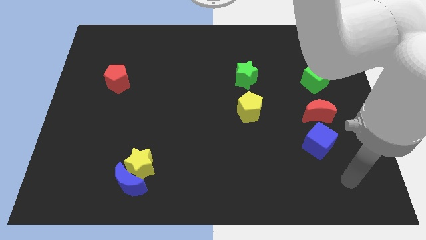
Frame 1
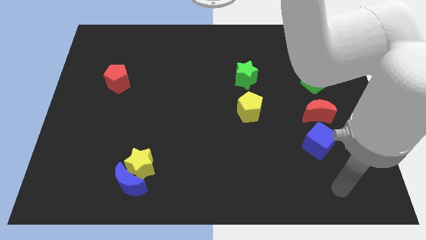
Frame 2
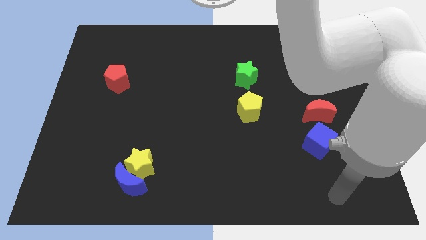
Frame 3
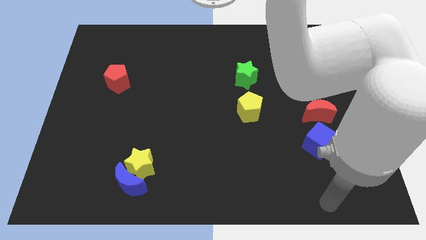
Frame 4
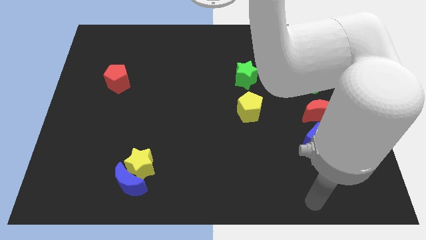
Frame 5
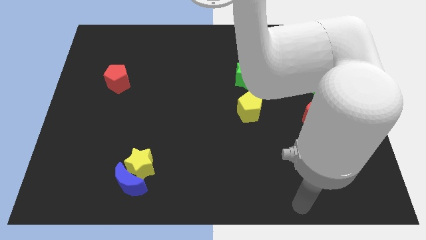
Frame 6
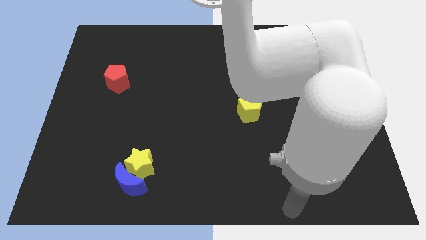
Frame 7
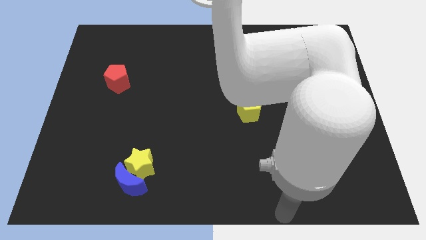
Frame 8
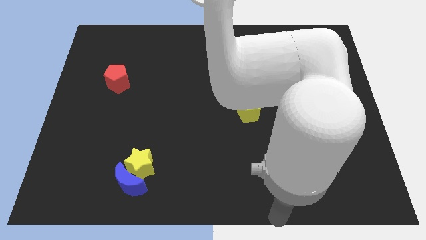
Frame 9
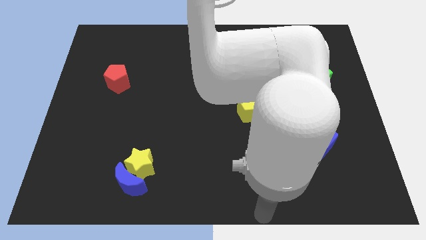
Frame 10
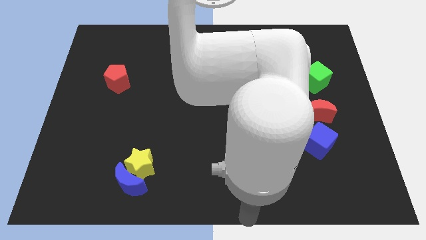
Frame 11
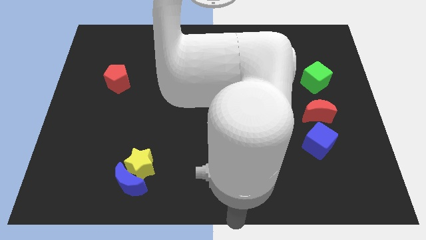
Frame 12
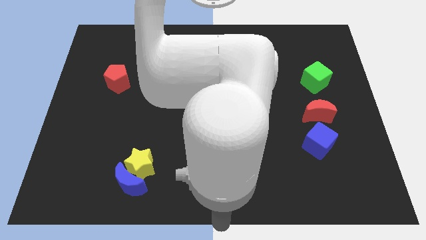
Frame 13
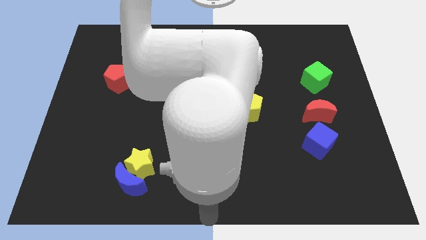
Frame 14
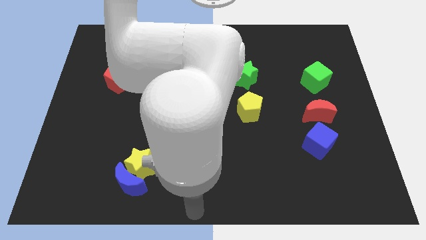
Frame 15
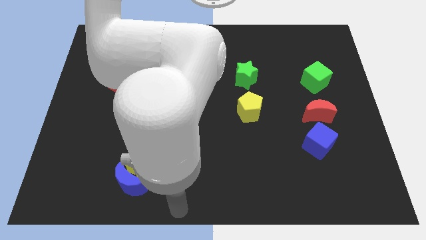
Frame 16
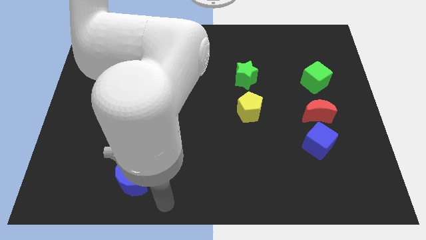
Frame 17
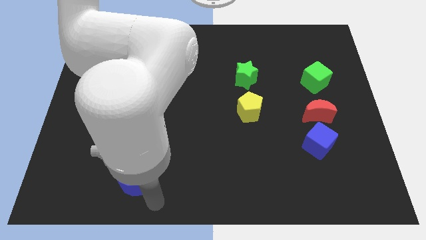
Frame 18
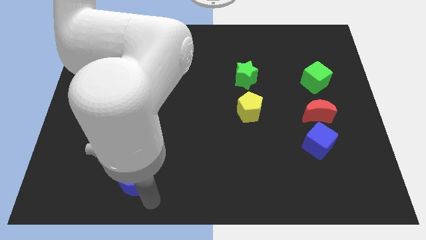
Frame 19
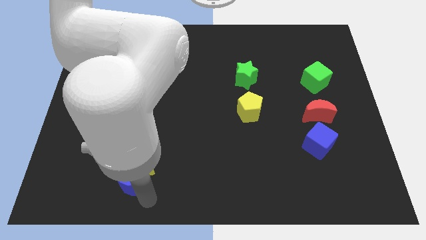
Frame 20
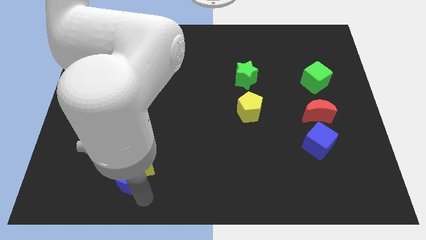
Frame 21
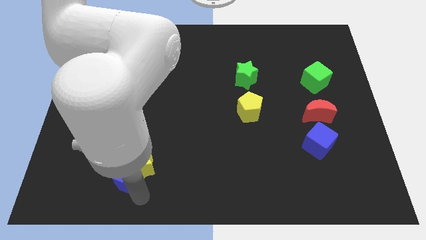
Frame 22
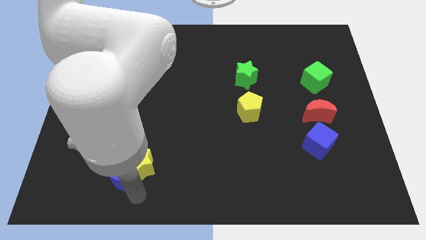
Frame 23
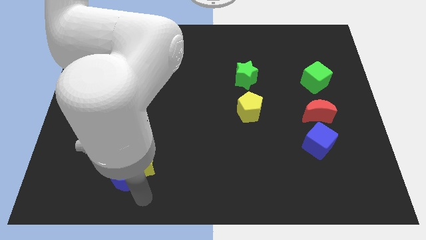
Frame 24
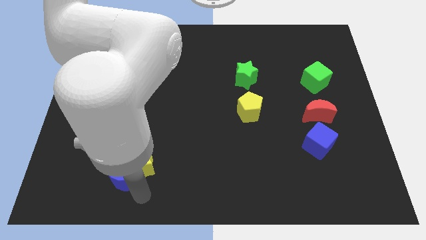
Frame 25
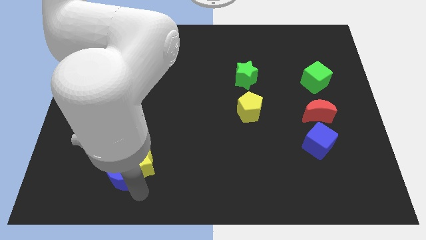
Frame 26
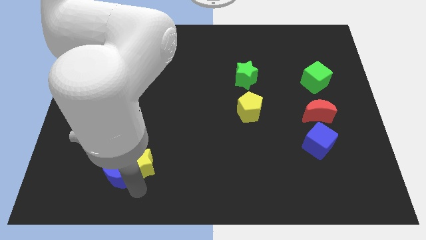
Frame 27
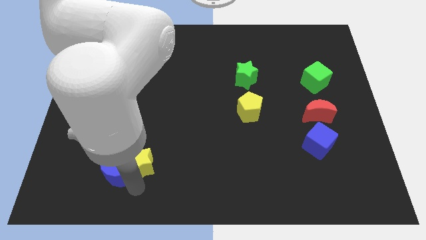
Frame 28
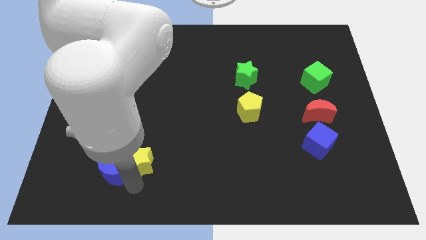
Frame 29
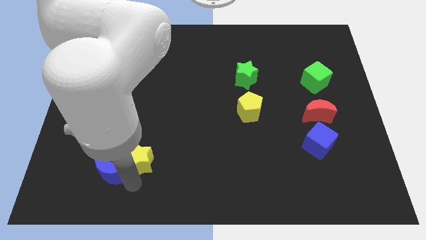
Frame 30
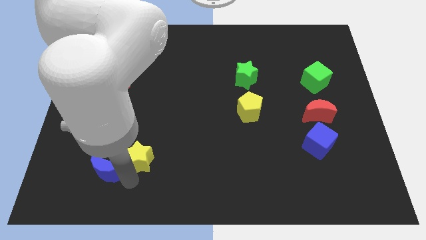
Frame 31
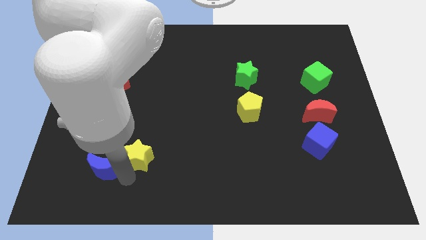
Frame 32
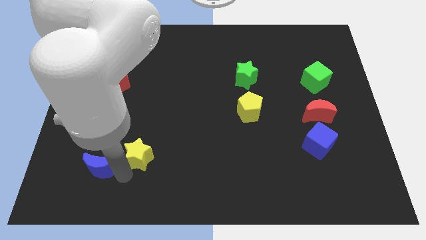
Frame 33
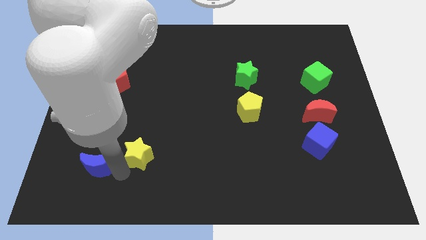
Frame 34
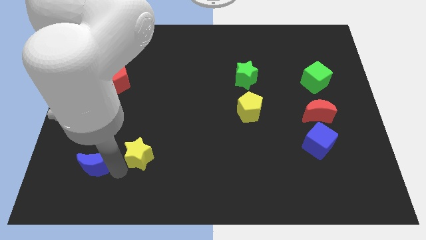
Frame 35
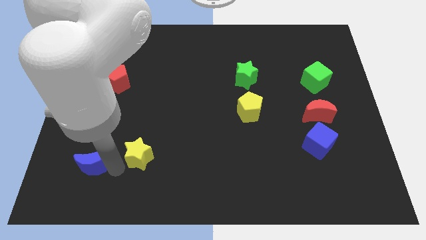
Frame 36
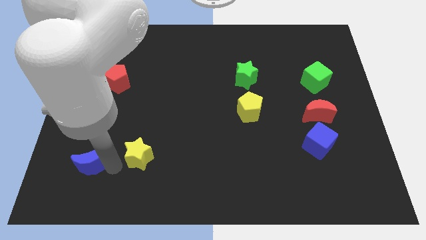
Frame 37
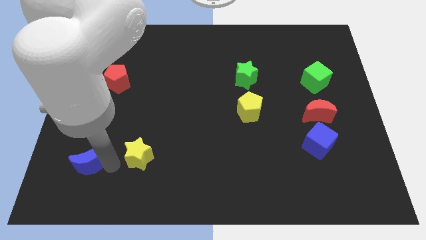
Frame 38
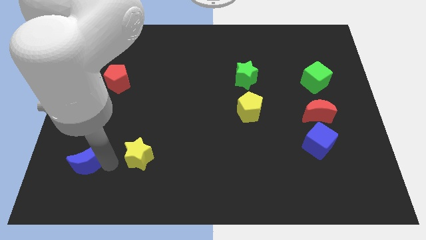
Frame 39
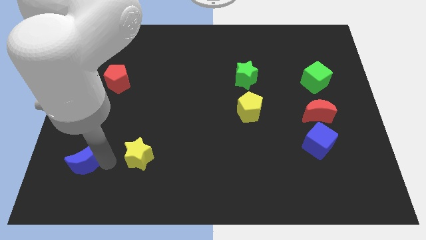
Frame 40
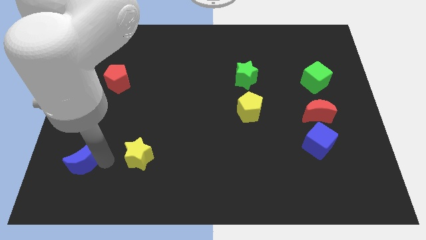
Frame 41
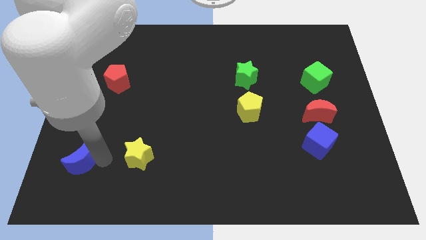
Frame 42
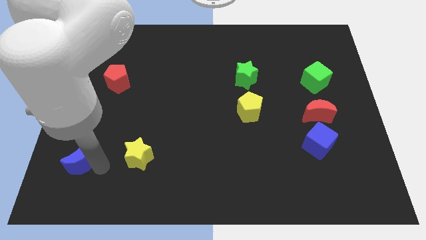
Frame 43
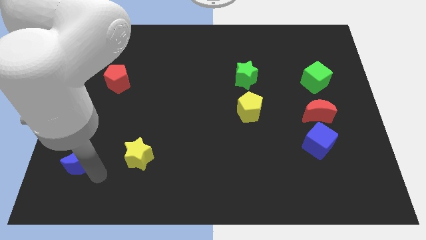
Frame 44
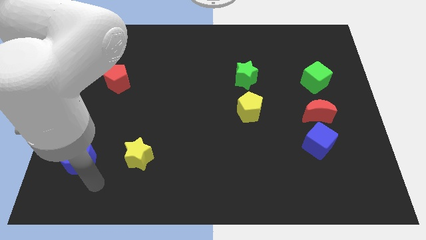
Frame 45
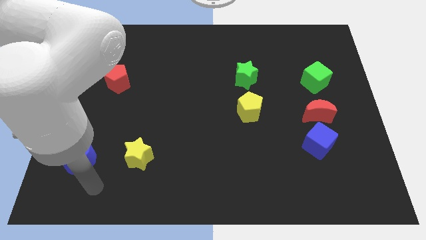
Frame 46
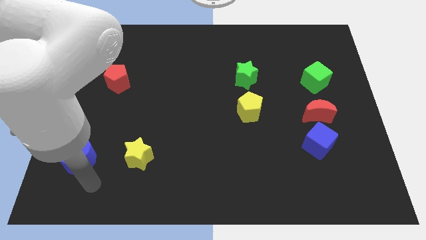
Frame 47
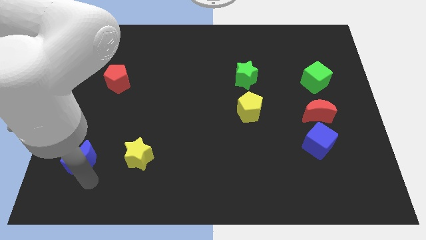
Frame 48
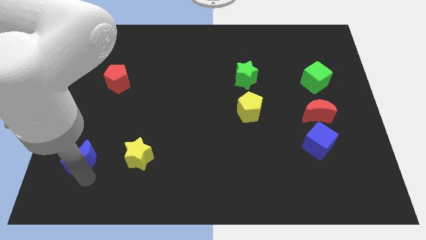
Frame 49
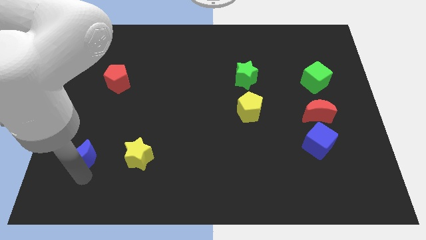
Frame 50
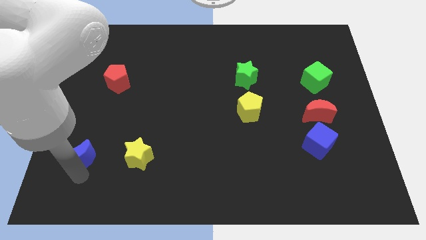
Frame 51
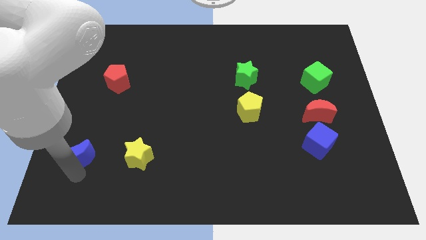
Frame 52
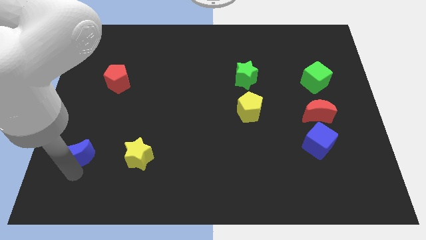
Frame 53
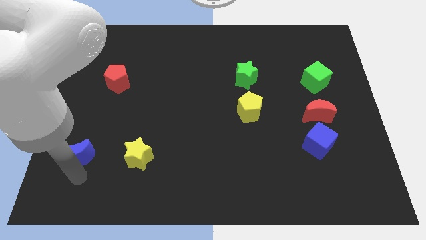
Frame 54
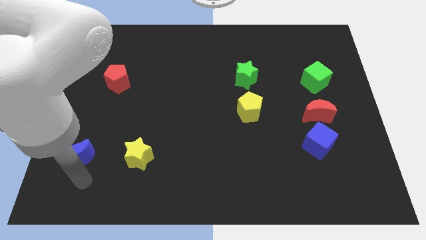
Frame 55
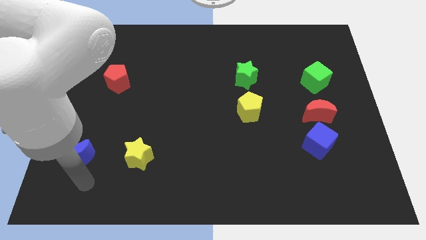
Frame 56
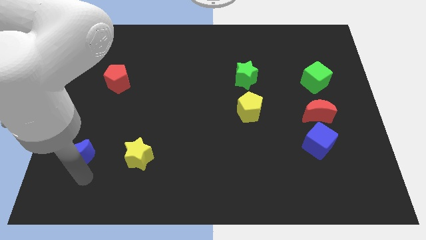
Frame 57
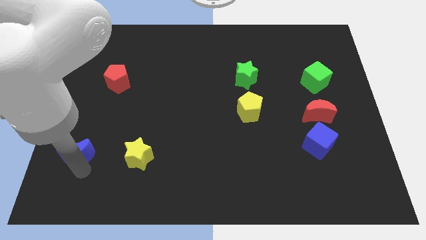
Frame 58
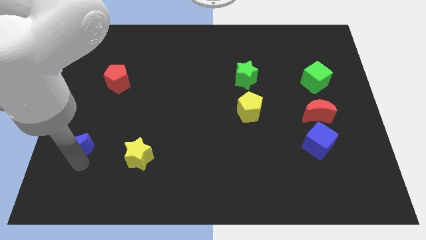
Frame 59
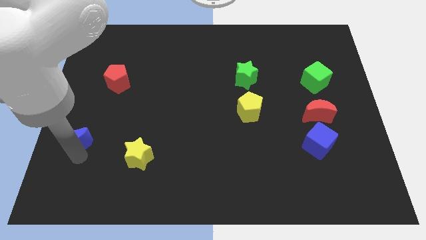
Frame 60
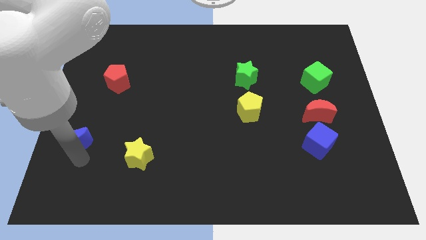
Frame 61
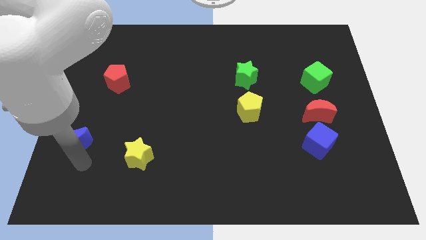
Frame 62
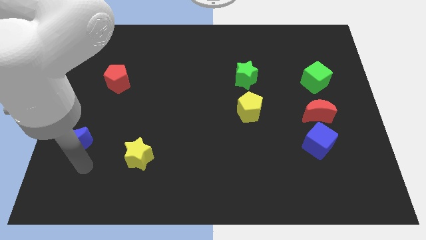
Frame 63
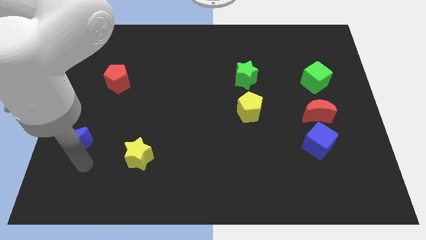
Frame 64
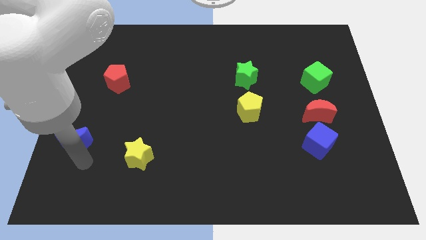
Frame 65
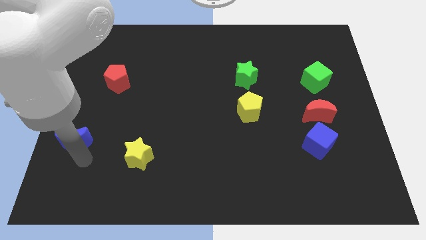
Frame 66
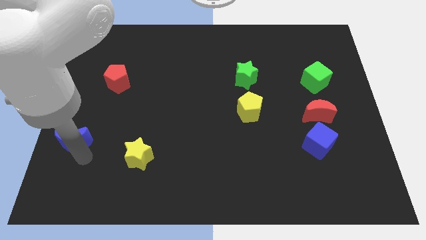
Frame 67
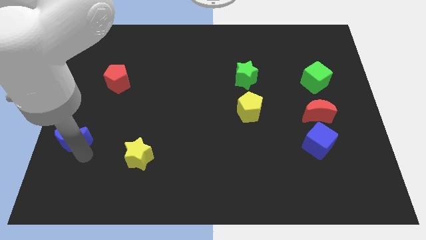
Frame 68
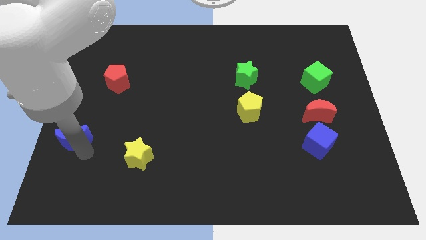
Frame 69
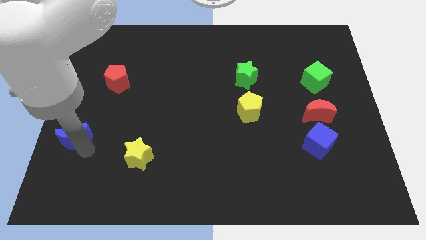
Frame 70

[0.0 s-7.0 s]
put the blue moon to the left side
